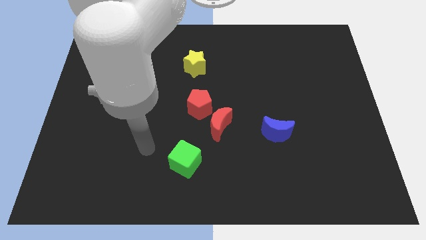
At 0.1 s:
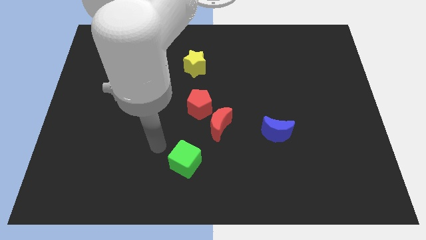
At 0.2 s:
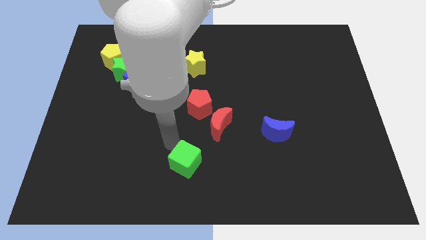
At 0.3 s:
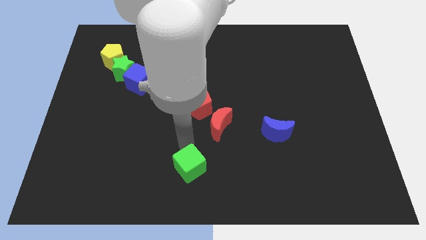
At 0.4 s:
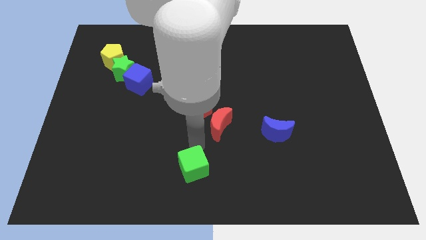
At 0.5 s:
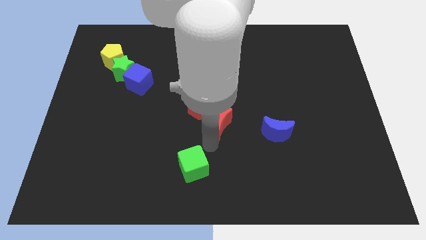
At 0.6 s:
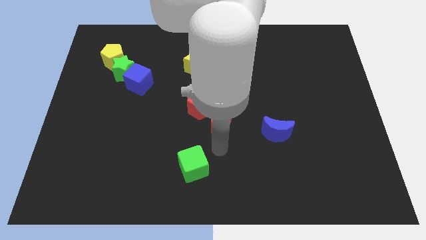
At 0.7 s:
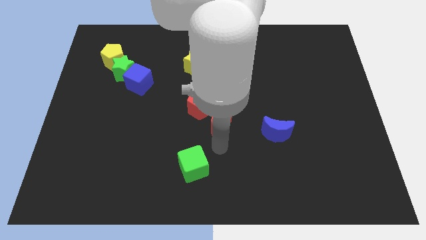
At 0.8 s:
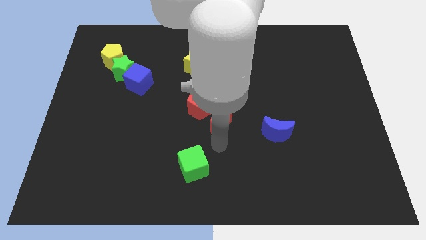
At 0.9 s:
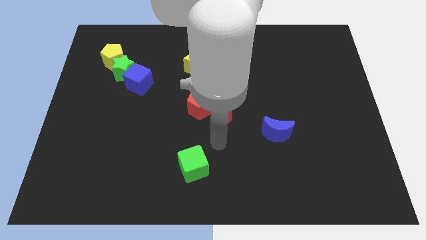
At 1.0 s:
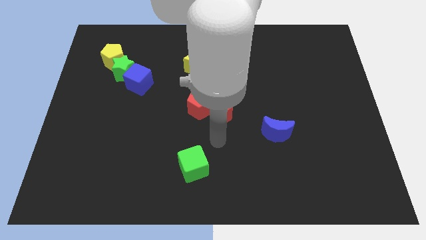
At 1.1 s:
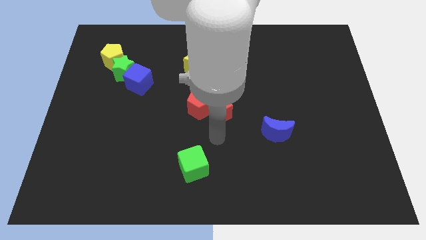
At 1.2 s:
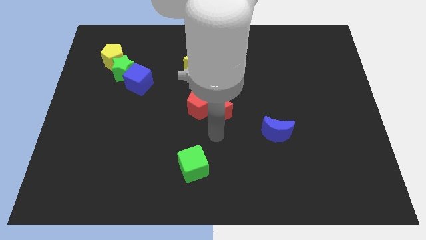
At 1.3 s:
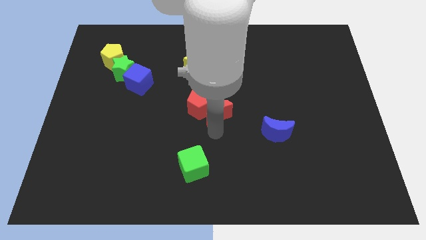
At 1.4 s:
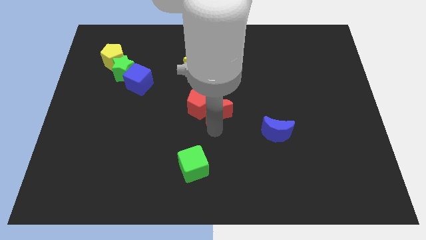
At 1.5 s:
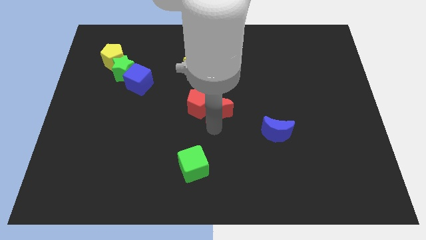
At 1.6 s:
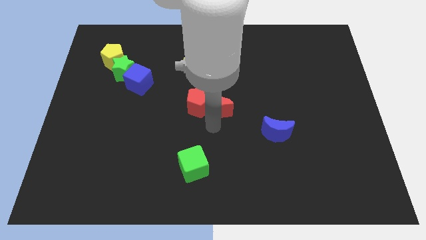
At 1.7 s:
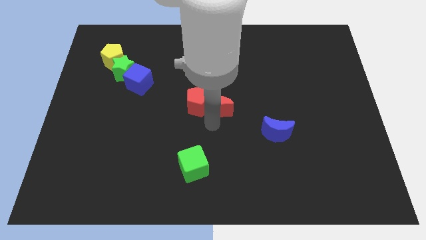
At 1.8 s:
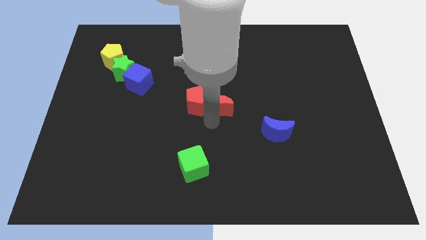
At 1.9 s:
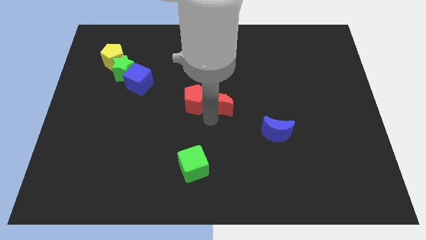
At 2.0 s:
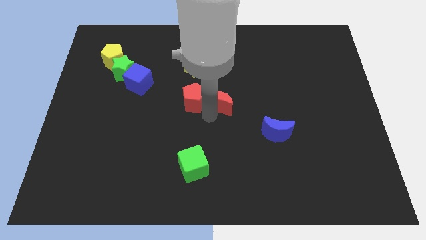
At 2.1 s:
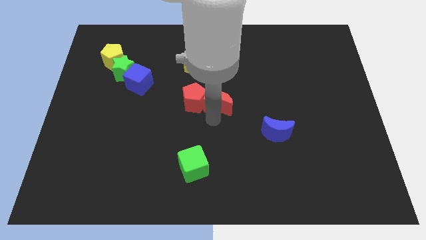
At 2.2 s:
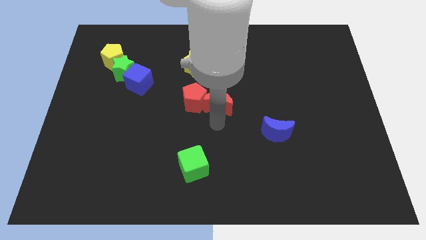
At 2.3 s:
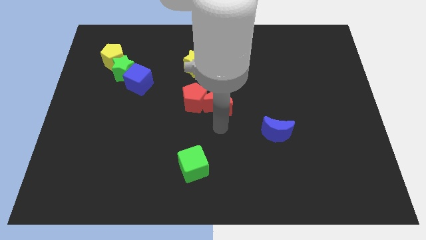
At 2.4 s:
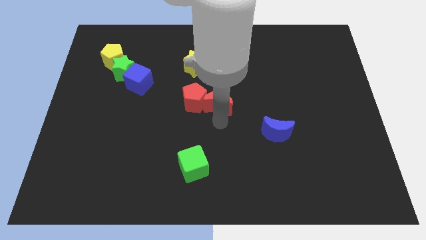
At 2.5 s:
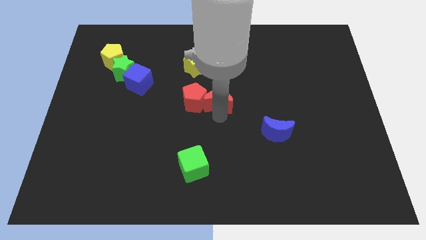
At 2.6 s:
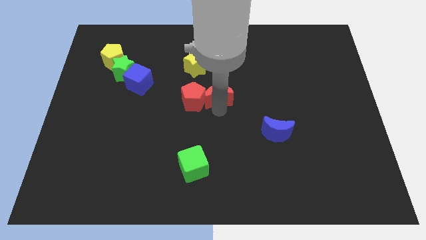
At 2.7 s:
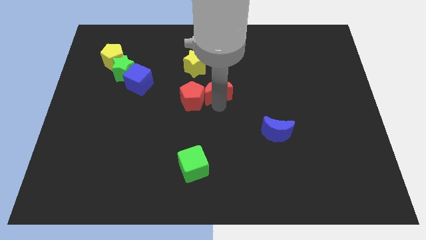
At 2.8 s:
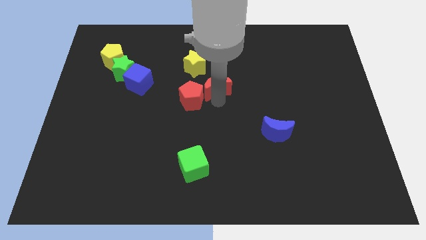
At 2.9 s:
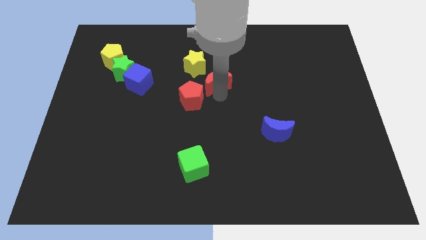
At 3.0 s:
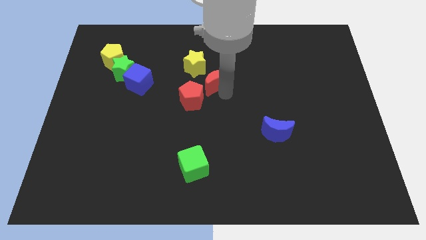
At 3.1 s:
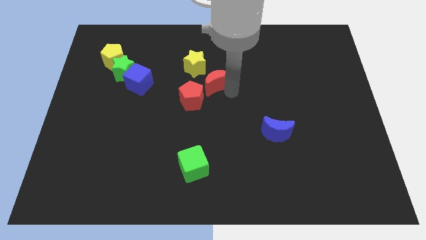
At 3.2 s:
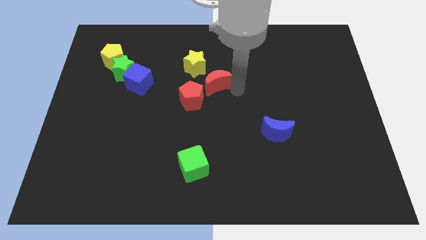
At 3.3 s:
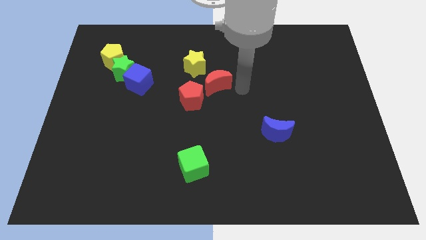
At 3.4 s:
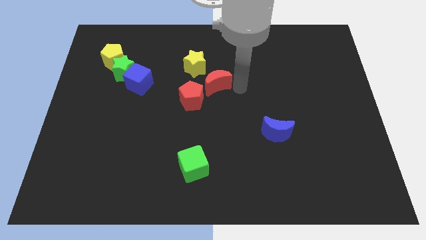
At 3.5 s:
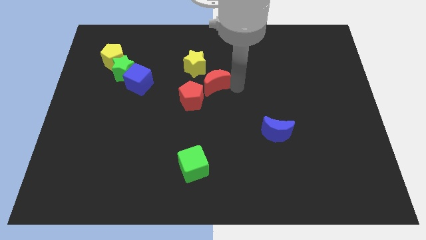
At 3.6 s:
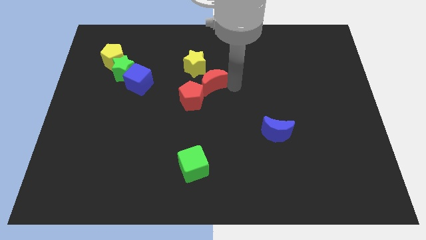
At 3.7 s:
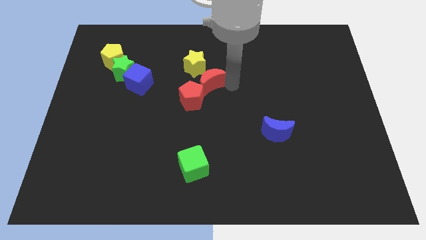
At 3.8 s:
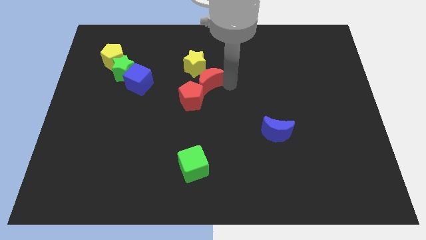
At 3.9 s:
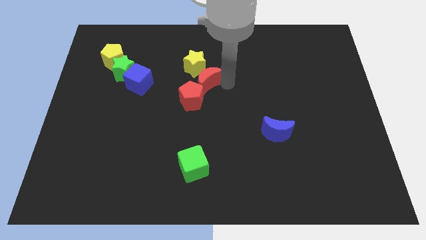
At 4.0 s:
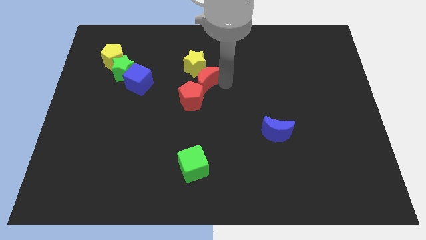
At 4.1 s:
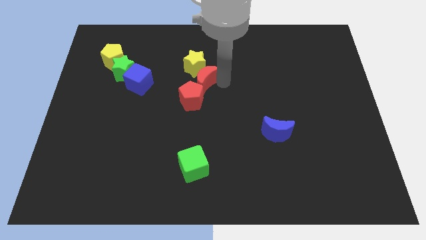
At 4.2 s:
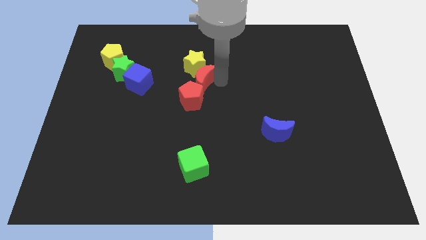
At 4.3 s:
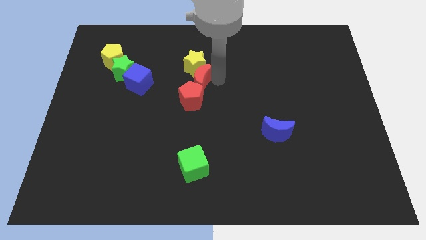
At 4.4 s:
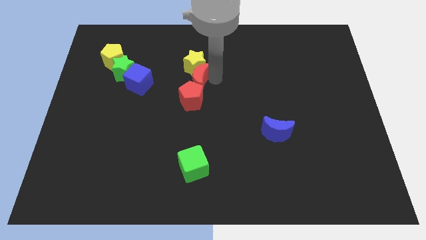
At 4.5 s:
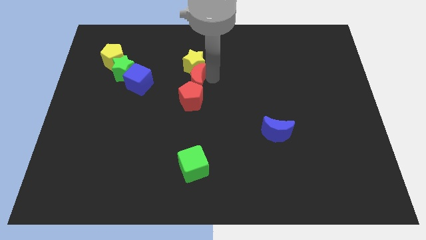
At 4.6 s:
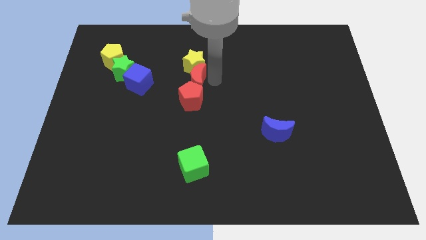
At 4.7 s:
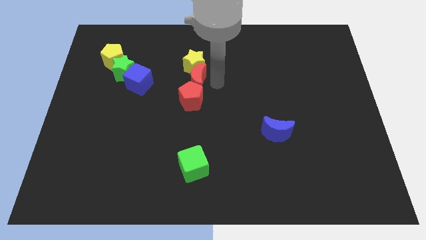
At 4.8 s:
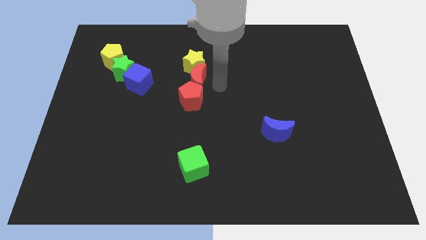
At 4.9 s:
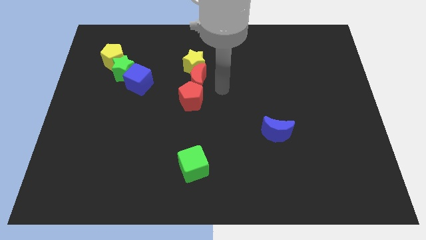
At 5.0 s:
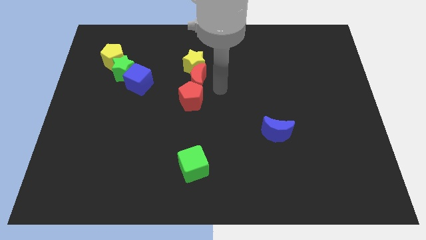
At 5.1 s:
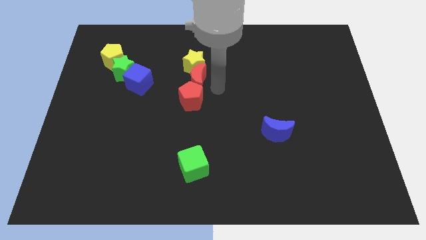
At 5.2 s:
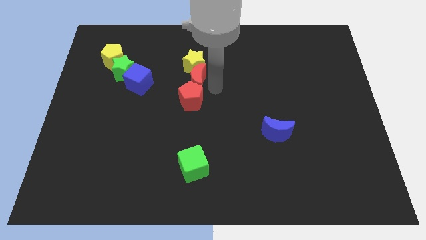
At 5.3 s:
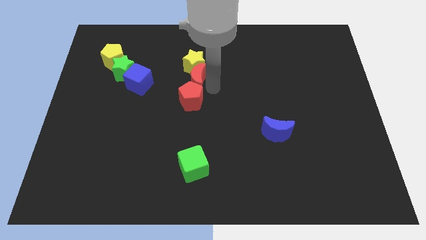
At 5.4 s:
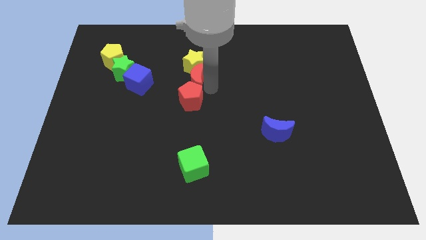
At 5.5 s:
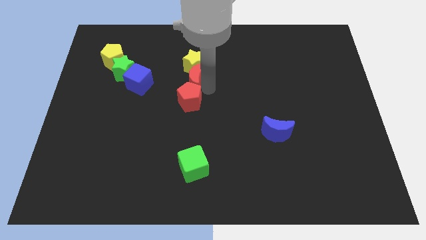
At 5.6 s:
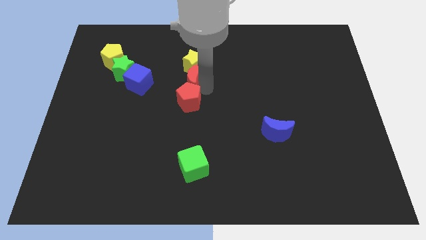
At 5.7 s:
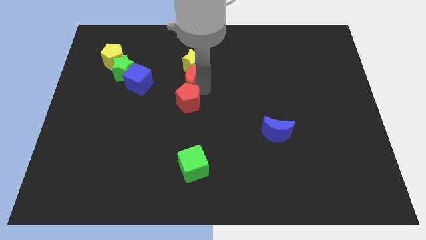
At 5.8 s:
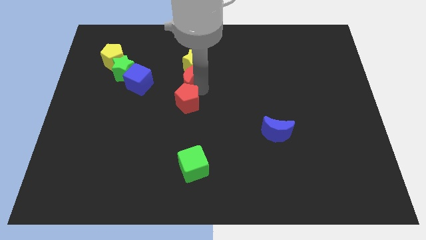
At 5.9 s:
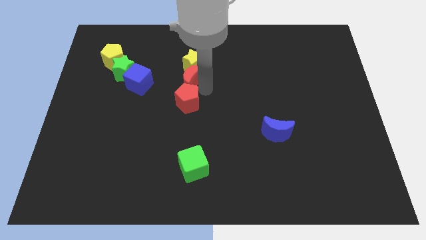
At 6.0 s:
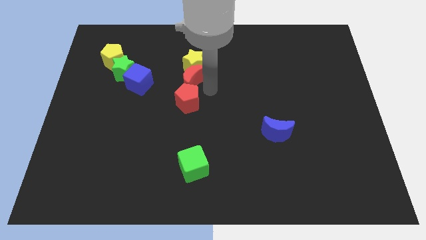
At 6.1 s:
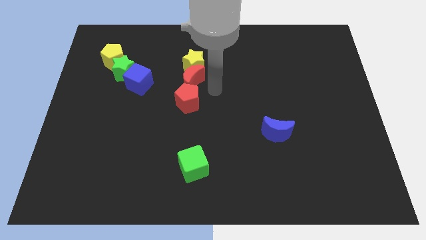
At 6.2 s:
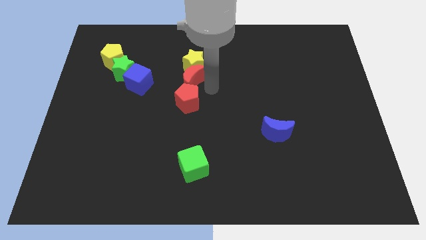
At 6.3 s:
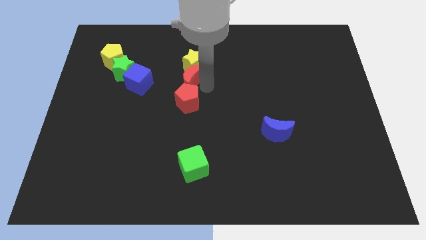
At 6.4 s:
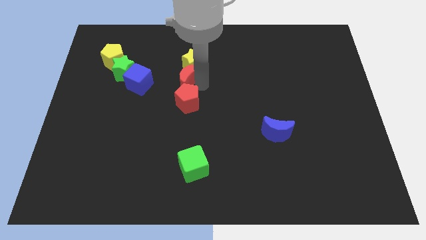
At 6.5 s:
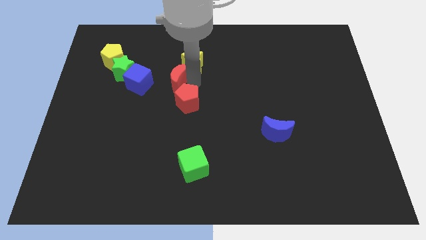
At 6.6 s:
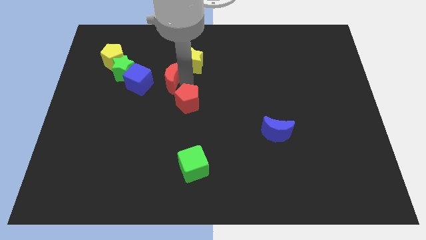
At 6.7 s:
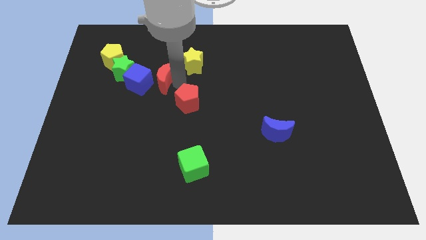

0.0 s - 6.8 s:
put the red moon diagonally up and to the right of the blue cube
